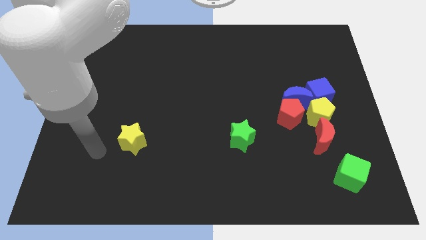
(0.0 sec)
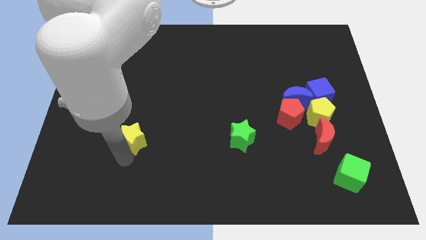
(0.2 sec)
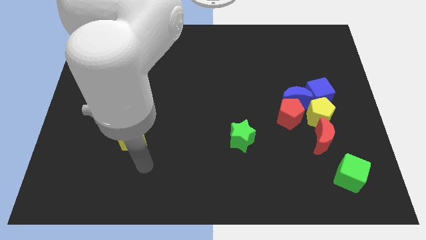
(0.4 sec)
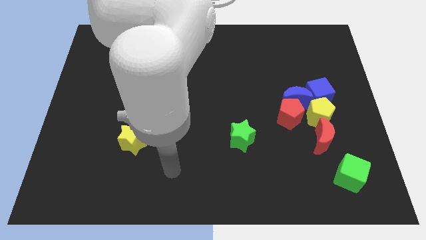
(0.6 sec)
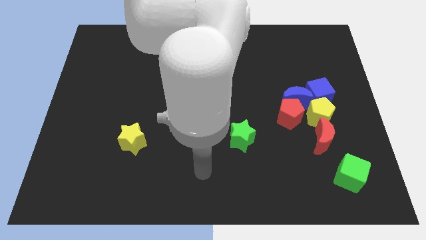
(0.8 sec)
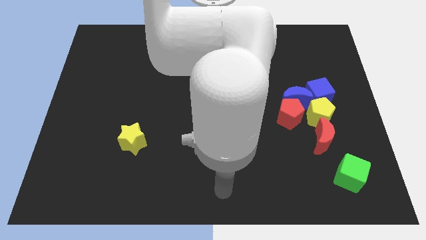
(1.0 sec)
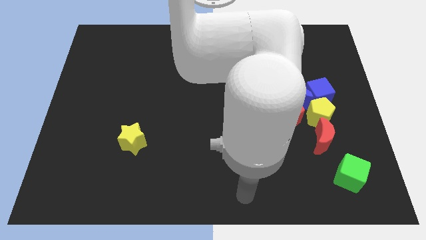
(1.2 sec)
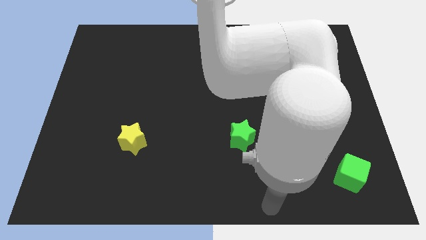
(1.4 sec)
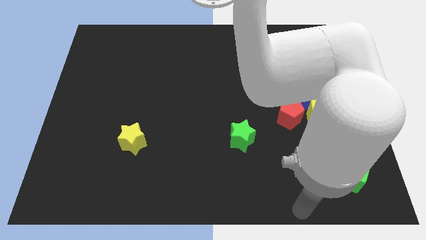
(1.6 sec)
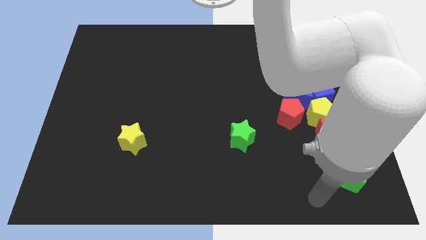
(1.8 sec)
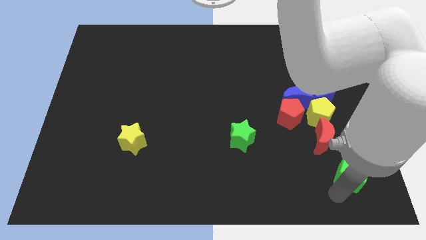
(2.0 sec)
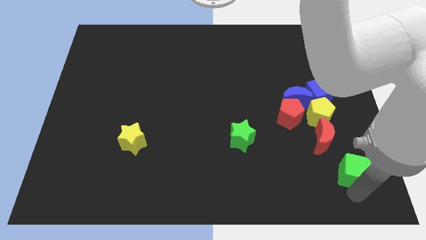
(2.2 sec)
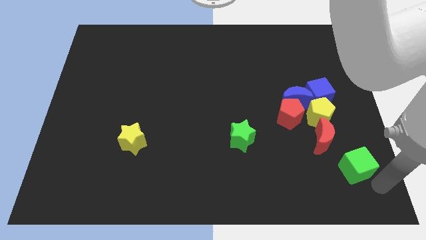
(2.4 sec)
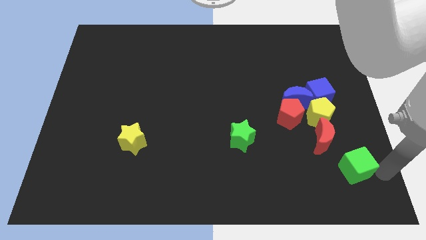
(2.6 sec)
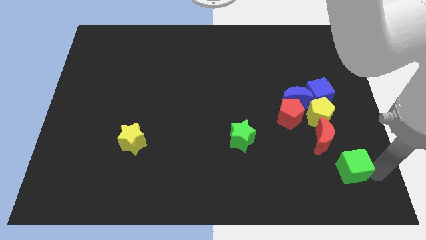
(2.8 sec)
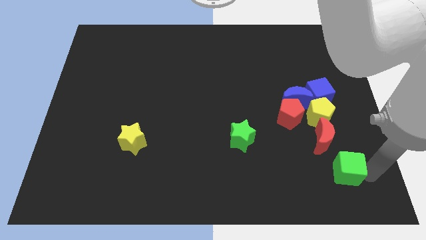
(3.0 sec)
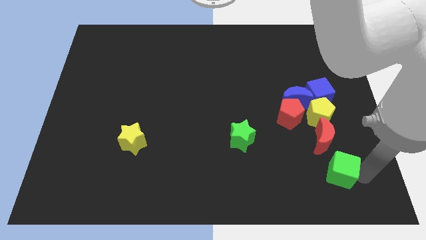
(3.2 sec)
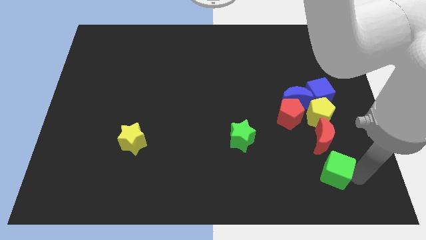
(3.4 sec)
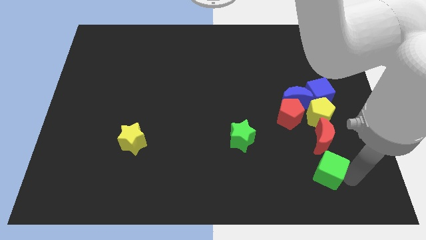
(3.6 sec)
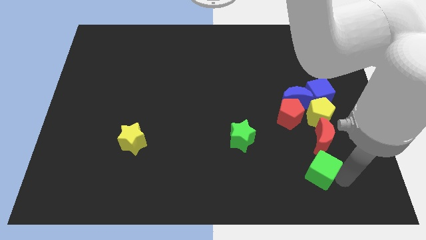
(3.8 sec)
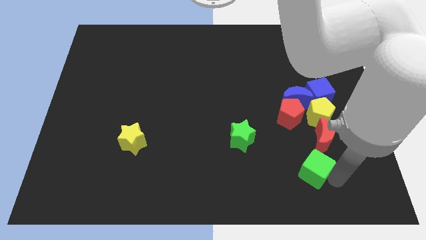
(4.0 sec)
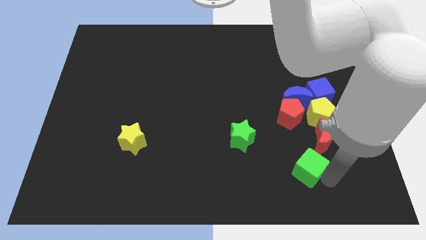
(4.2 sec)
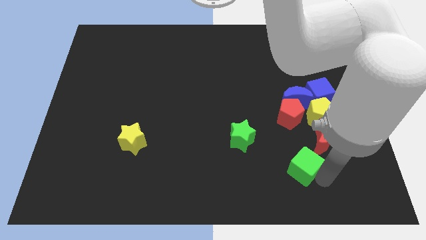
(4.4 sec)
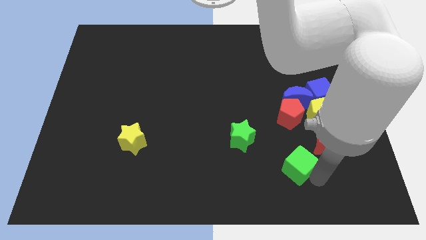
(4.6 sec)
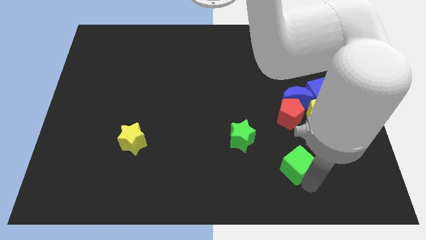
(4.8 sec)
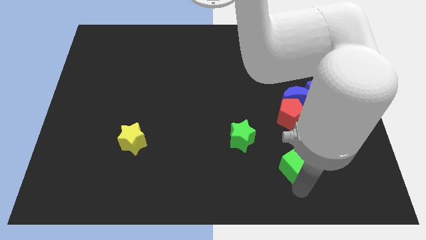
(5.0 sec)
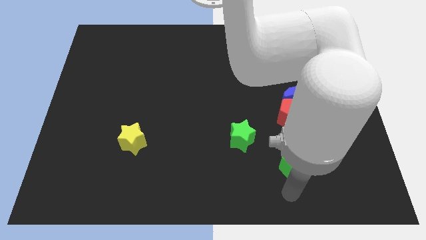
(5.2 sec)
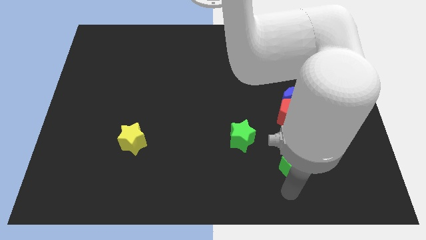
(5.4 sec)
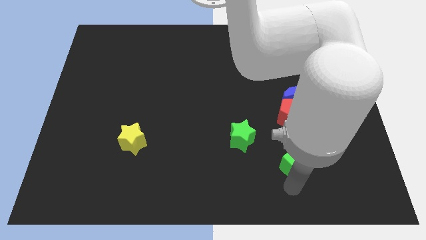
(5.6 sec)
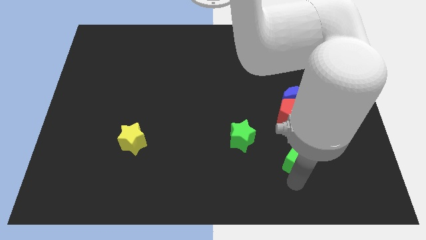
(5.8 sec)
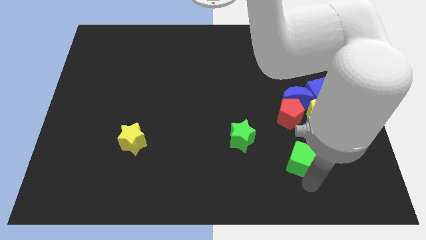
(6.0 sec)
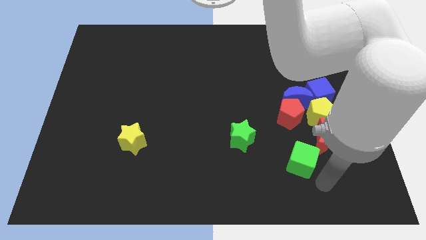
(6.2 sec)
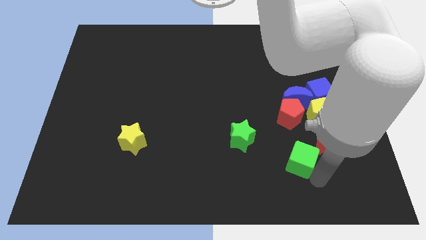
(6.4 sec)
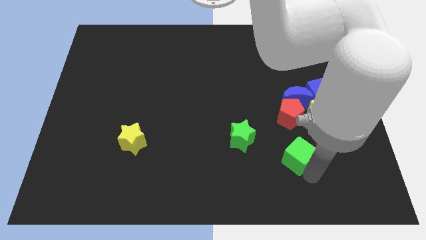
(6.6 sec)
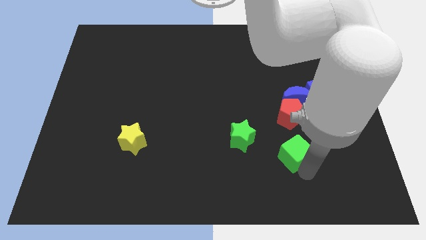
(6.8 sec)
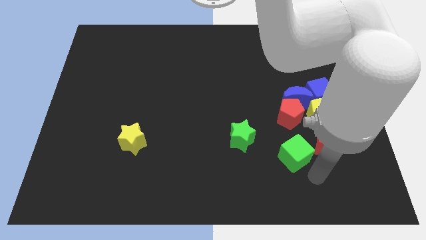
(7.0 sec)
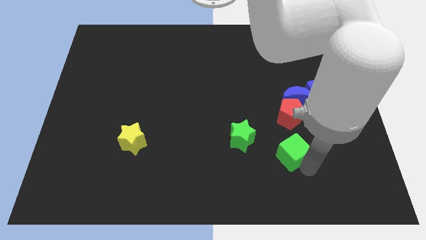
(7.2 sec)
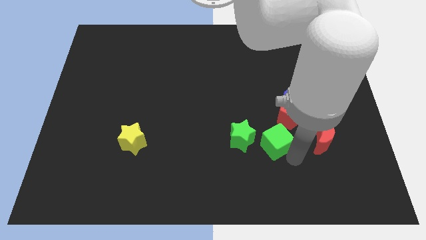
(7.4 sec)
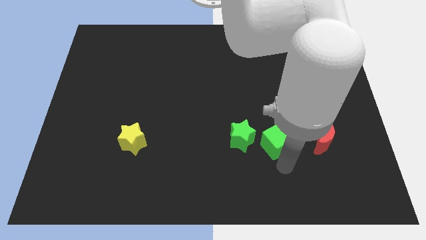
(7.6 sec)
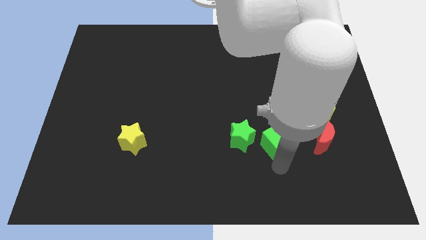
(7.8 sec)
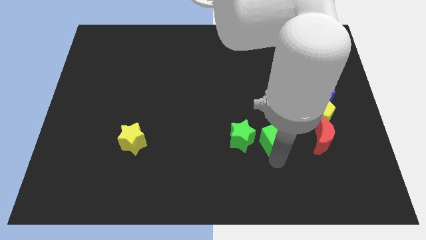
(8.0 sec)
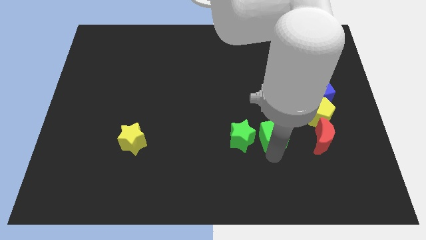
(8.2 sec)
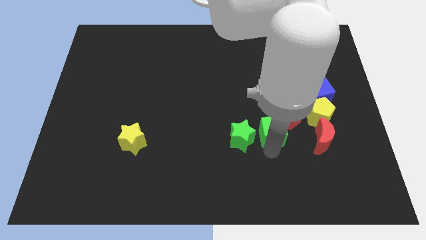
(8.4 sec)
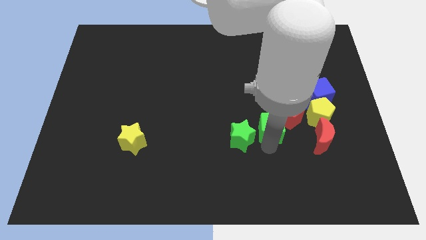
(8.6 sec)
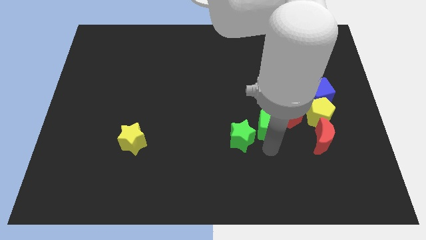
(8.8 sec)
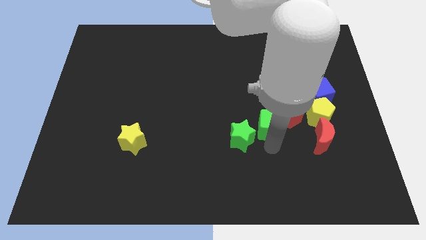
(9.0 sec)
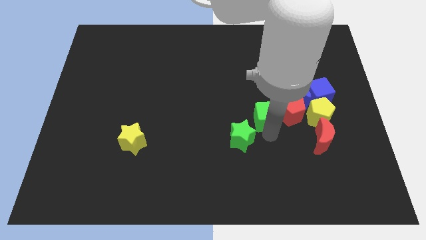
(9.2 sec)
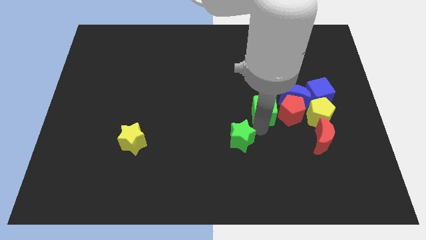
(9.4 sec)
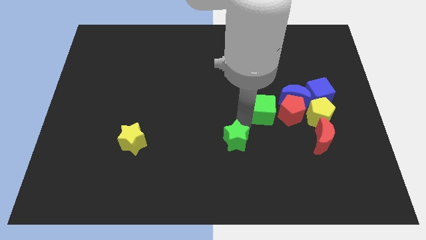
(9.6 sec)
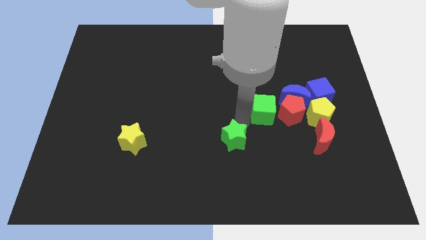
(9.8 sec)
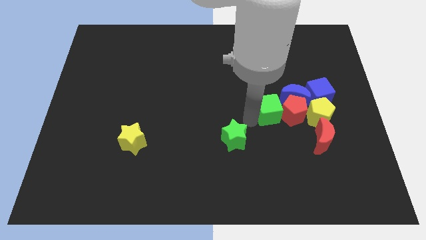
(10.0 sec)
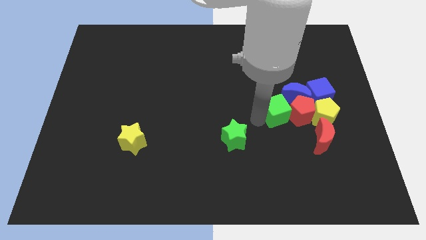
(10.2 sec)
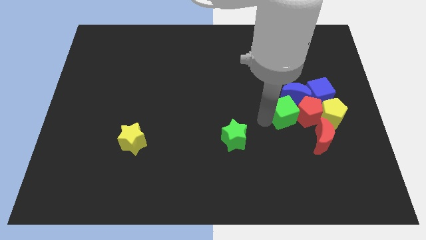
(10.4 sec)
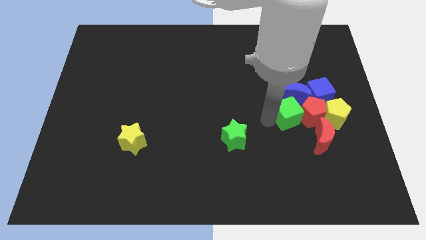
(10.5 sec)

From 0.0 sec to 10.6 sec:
put the green cube towards the blue moon

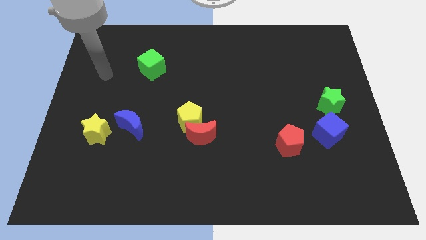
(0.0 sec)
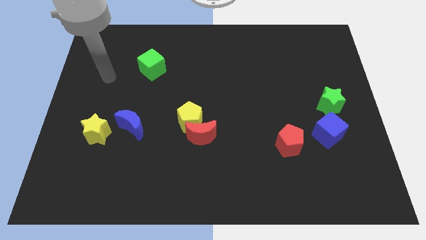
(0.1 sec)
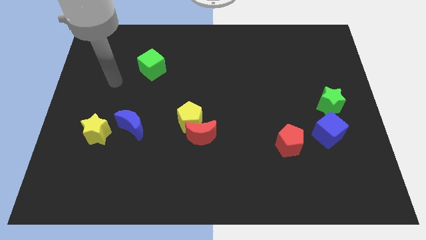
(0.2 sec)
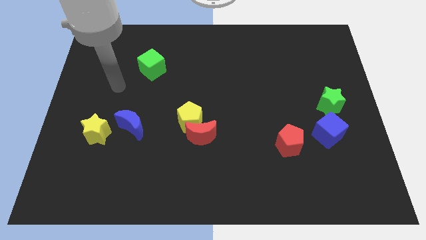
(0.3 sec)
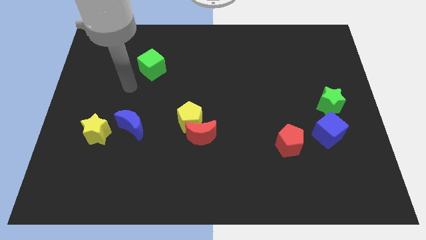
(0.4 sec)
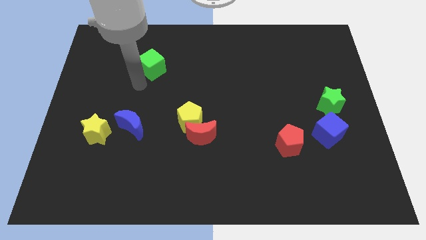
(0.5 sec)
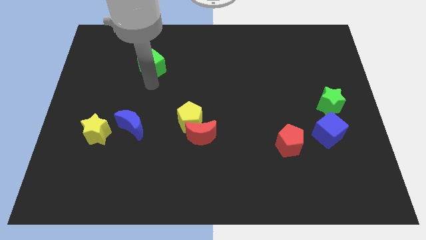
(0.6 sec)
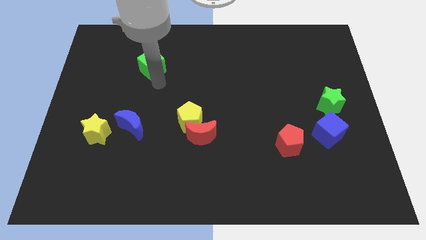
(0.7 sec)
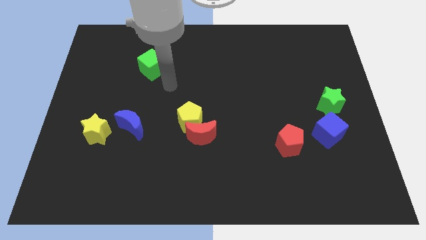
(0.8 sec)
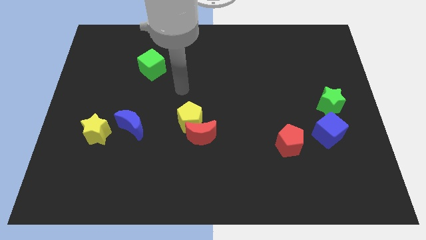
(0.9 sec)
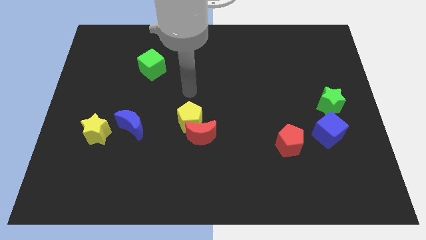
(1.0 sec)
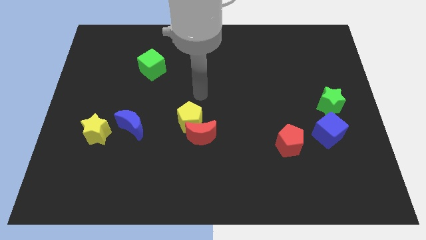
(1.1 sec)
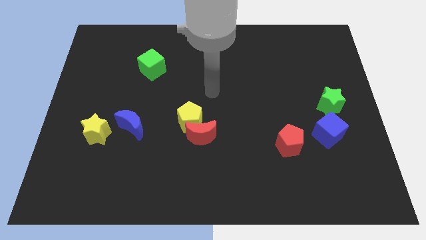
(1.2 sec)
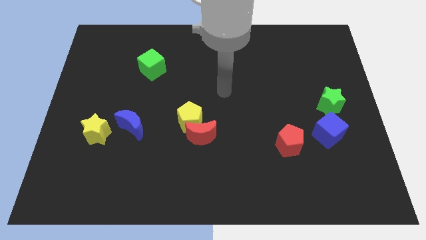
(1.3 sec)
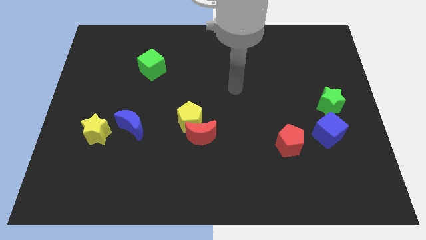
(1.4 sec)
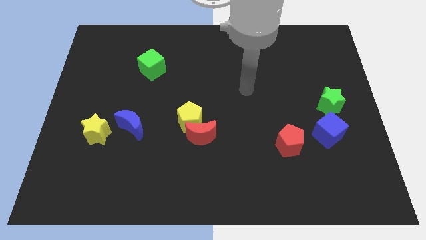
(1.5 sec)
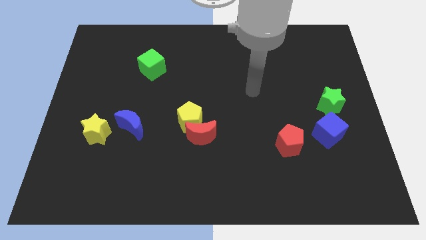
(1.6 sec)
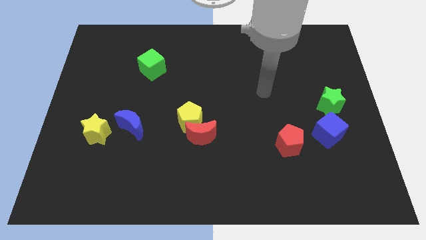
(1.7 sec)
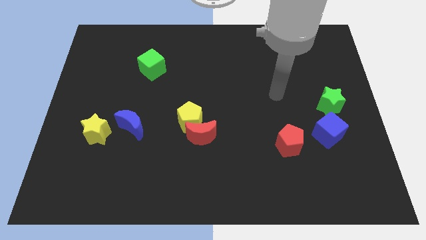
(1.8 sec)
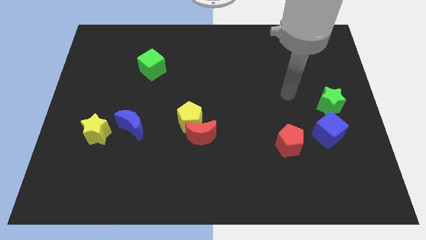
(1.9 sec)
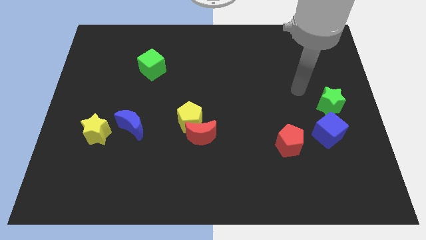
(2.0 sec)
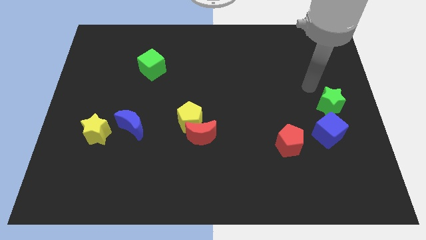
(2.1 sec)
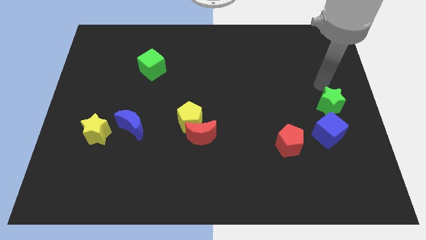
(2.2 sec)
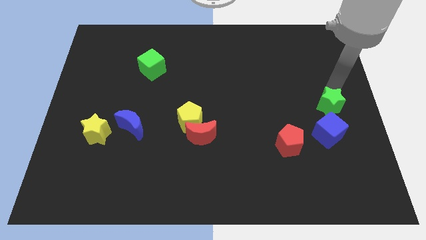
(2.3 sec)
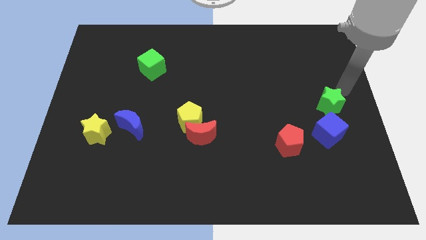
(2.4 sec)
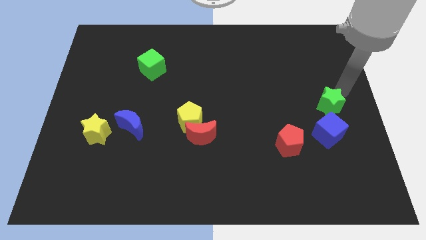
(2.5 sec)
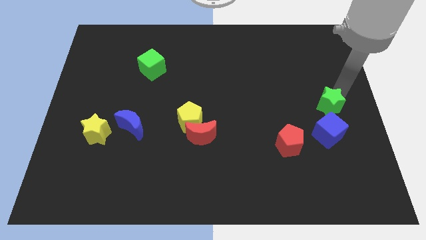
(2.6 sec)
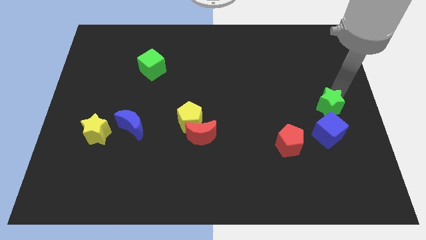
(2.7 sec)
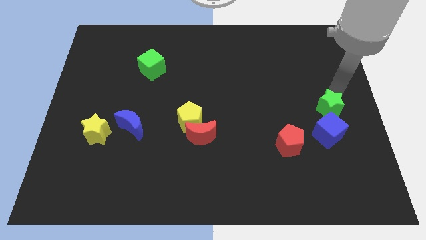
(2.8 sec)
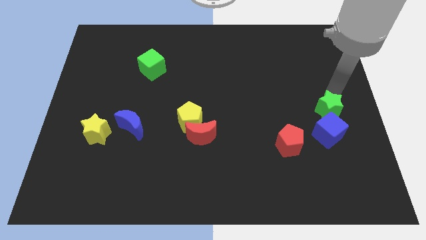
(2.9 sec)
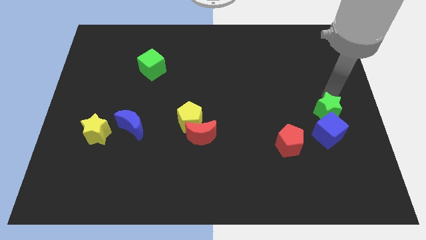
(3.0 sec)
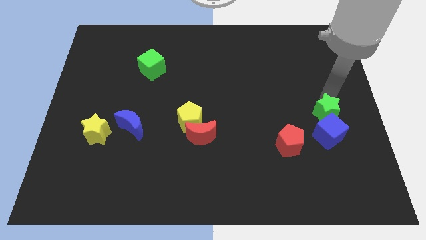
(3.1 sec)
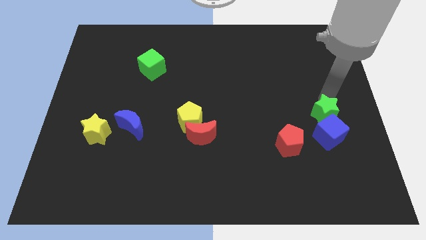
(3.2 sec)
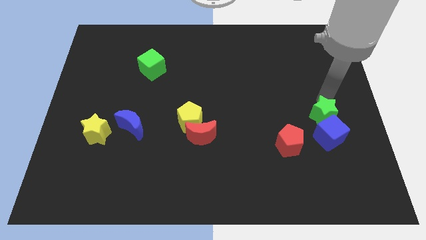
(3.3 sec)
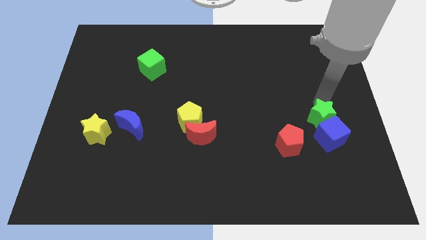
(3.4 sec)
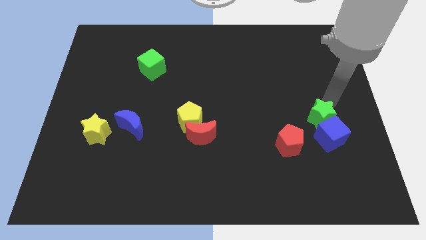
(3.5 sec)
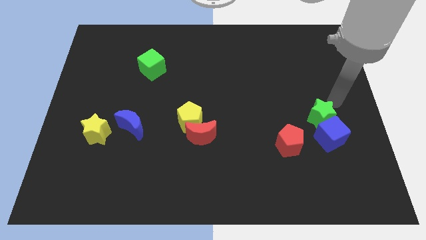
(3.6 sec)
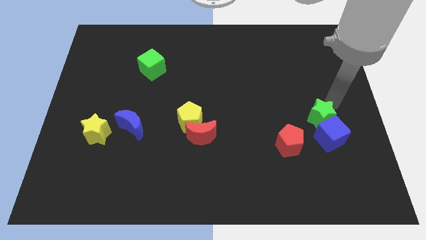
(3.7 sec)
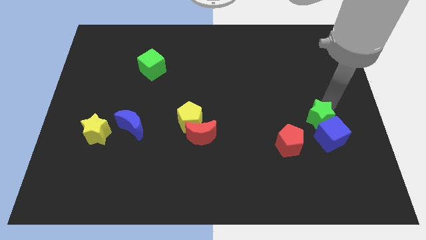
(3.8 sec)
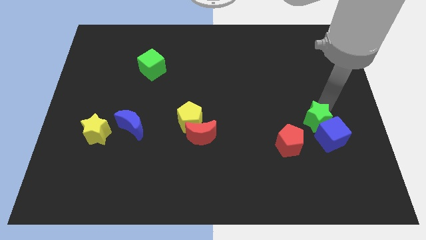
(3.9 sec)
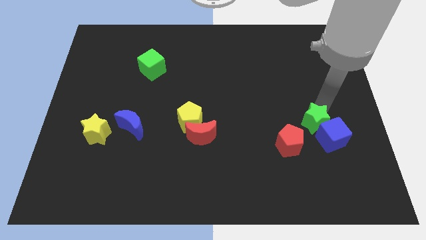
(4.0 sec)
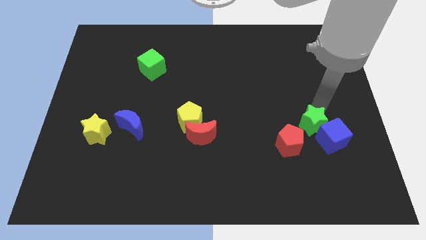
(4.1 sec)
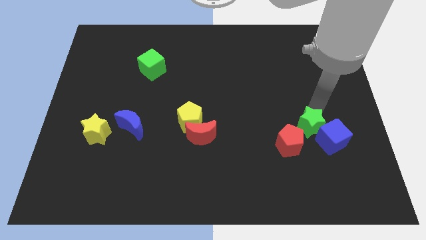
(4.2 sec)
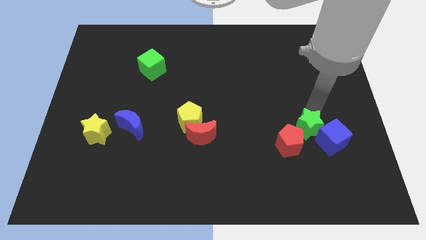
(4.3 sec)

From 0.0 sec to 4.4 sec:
move the green star towards the red pentagon
